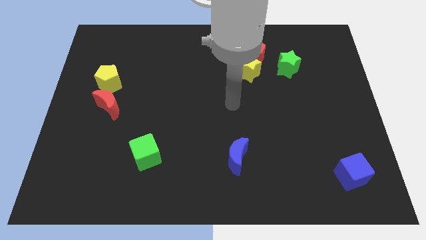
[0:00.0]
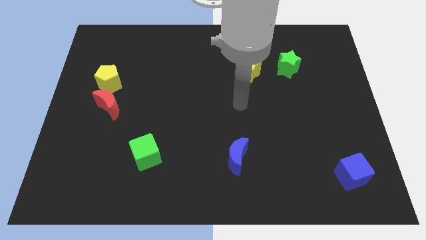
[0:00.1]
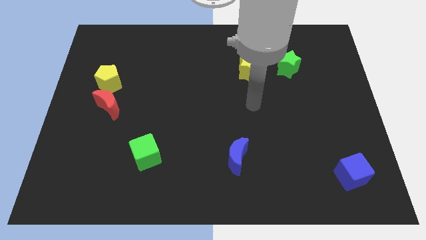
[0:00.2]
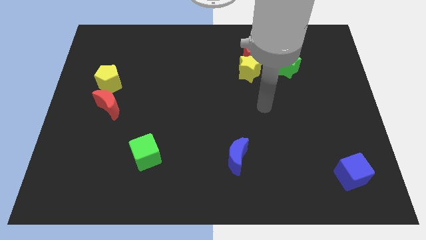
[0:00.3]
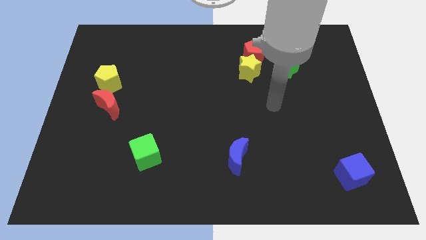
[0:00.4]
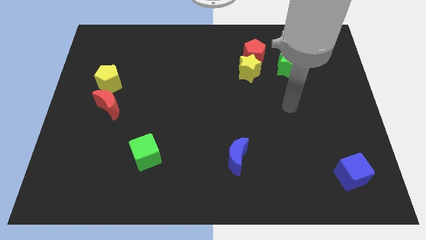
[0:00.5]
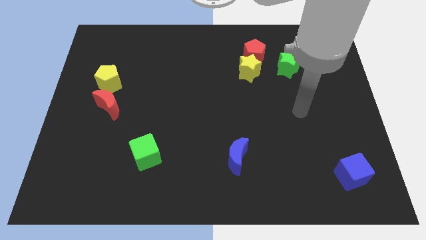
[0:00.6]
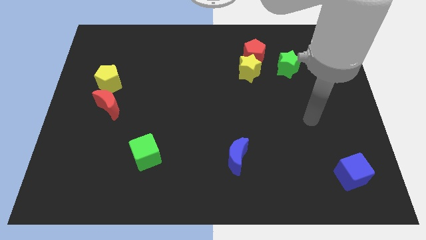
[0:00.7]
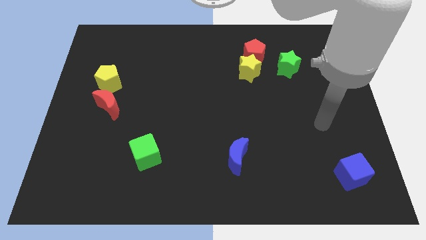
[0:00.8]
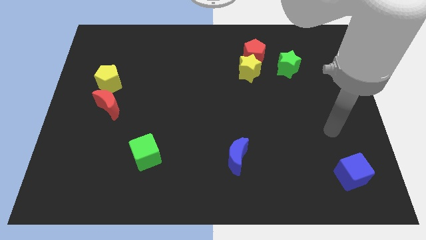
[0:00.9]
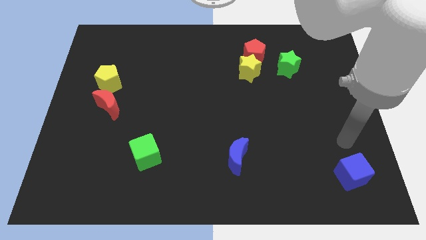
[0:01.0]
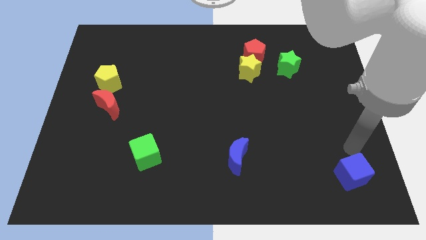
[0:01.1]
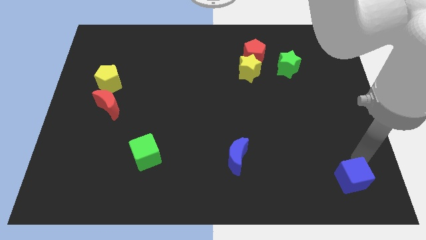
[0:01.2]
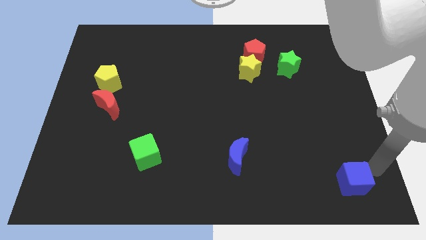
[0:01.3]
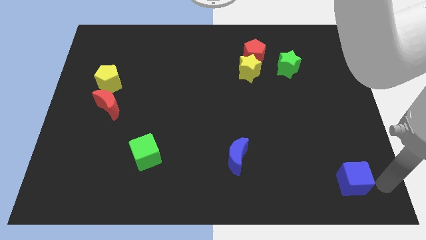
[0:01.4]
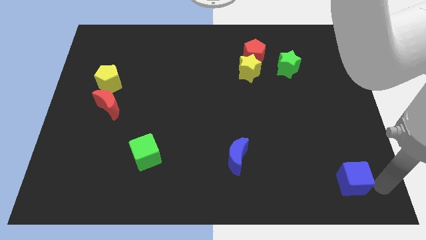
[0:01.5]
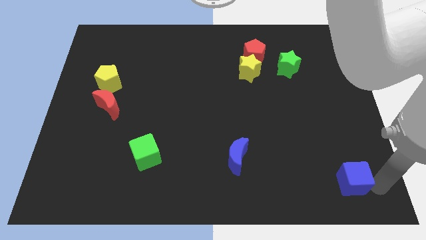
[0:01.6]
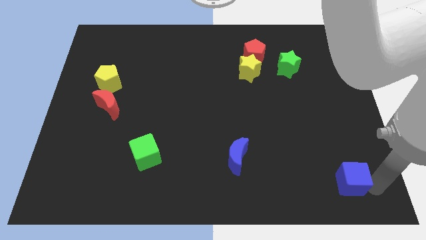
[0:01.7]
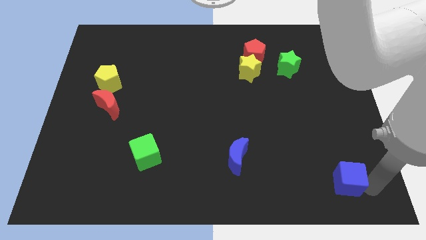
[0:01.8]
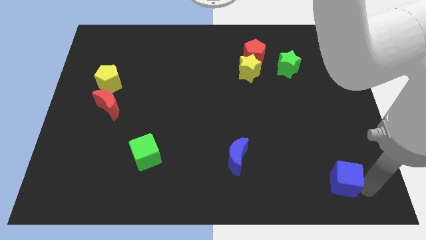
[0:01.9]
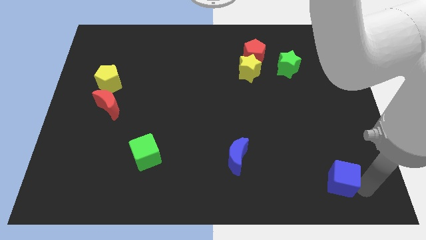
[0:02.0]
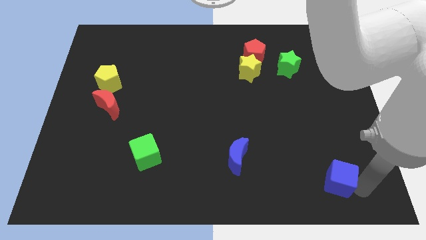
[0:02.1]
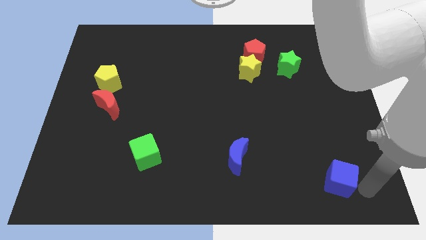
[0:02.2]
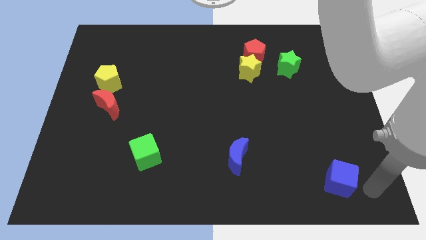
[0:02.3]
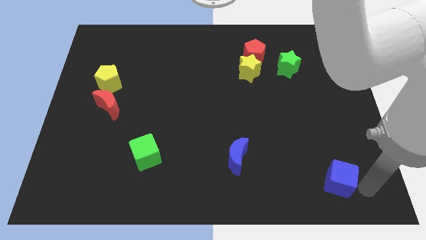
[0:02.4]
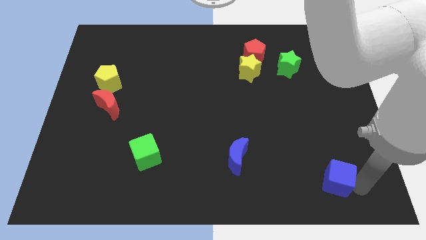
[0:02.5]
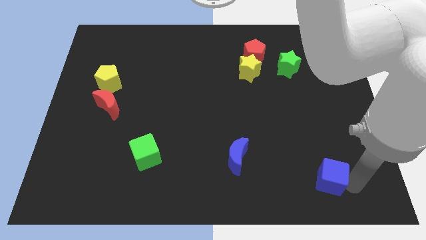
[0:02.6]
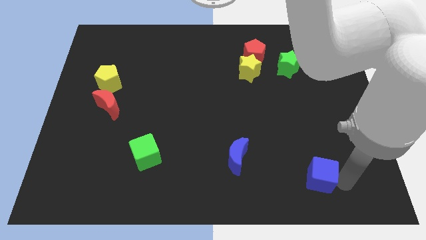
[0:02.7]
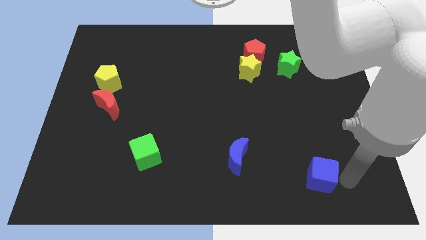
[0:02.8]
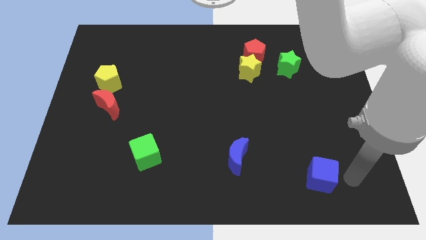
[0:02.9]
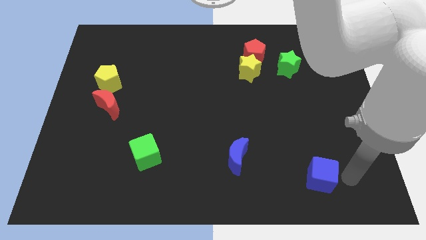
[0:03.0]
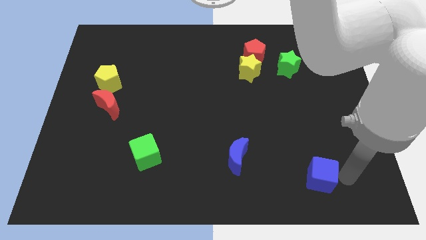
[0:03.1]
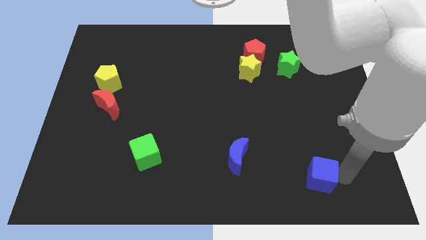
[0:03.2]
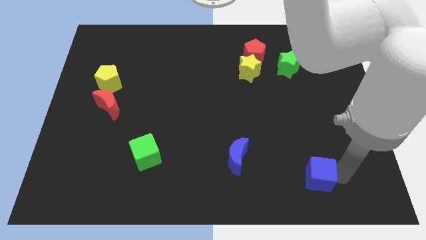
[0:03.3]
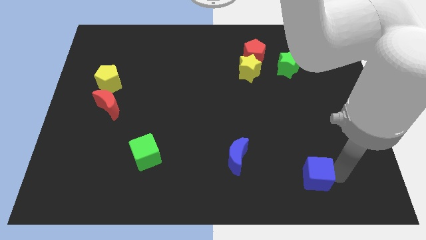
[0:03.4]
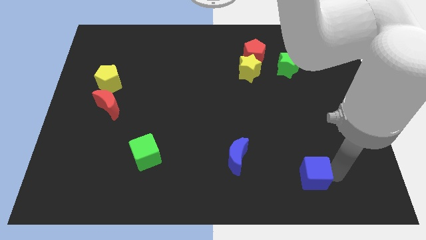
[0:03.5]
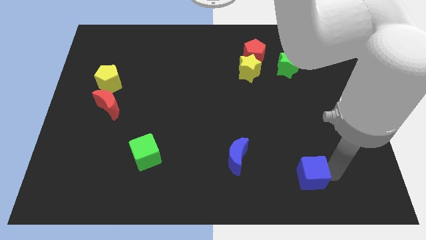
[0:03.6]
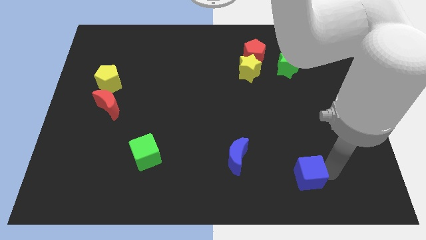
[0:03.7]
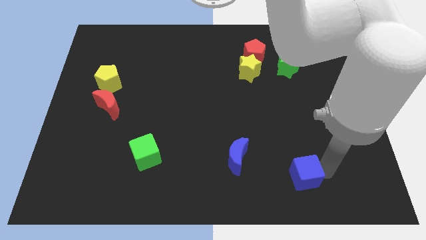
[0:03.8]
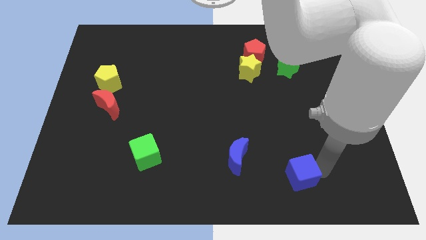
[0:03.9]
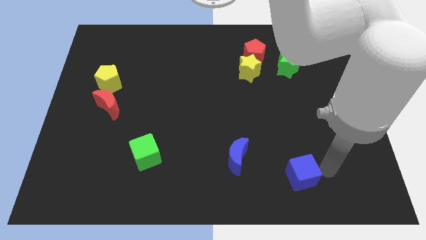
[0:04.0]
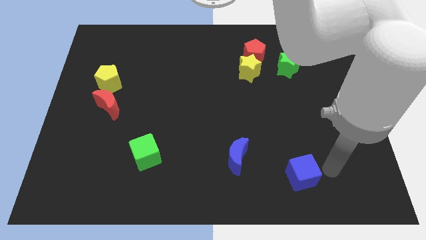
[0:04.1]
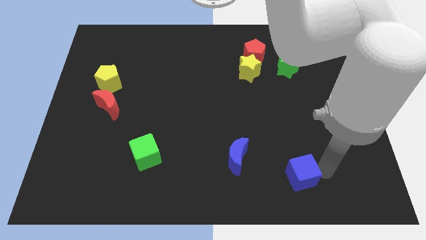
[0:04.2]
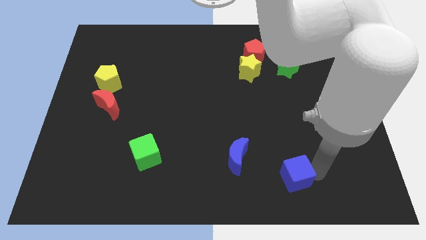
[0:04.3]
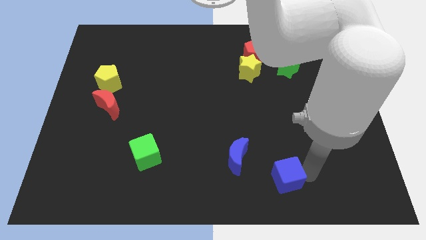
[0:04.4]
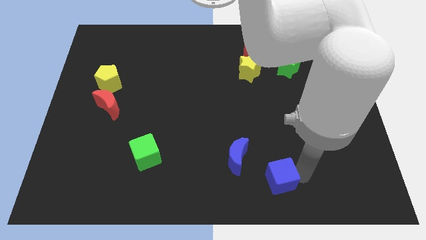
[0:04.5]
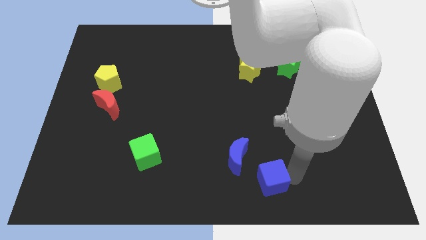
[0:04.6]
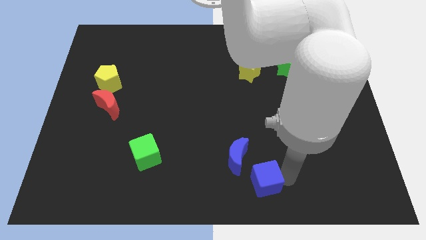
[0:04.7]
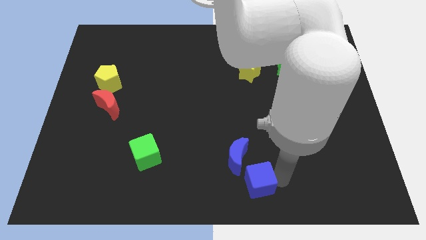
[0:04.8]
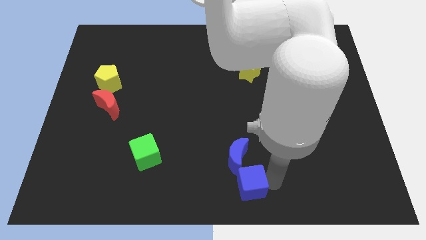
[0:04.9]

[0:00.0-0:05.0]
move the blue cube to the left

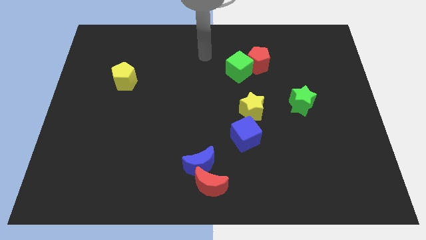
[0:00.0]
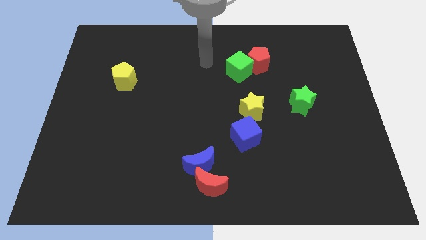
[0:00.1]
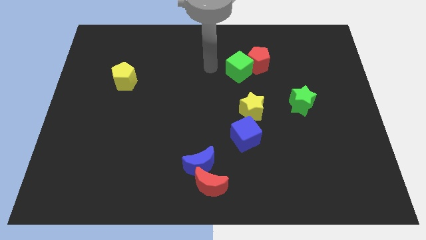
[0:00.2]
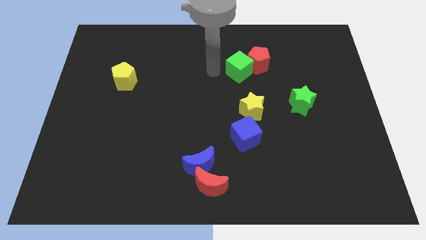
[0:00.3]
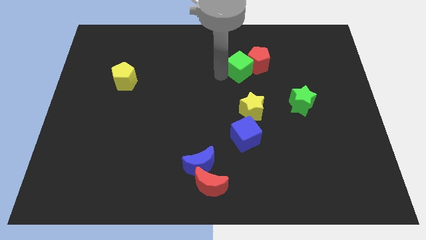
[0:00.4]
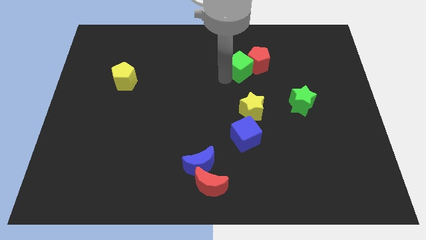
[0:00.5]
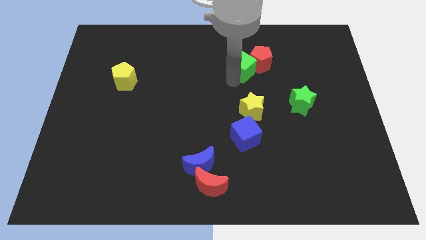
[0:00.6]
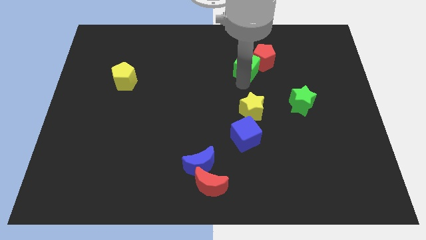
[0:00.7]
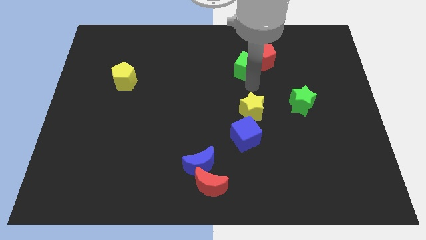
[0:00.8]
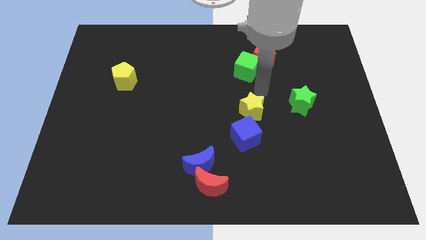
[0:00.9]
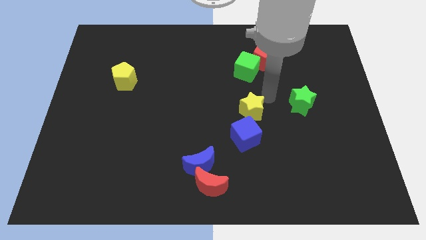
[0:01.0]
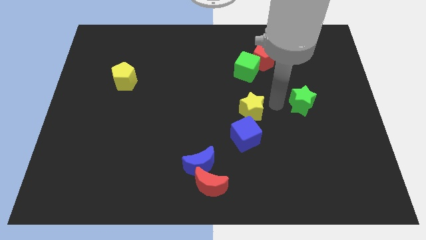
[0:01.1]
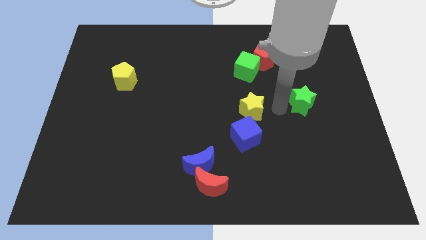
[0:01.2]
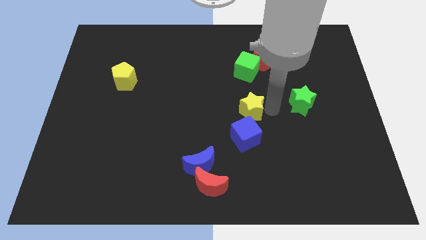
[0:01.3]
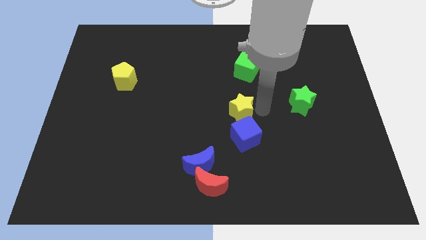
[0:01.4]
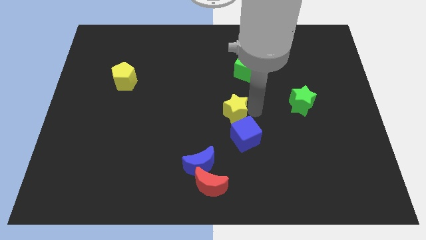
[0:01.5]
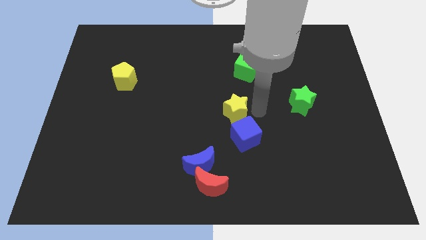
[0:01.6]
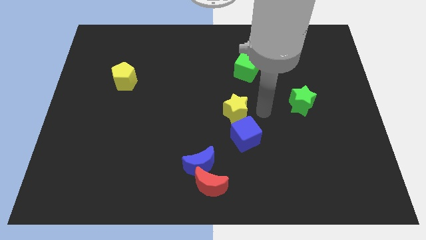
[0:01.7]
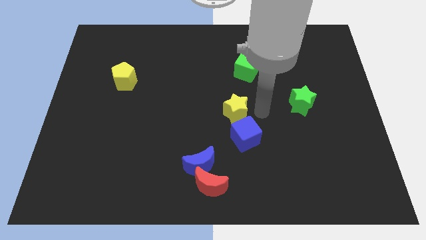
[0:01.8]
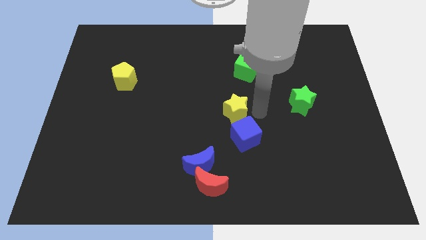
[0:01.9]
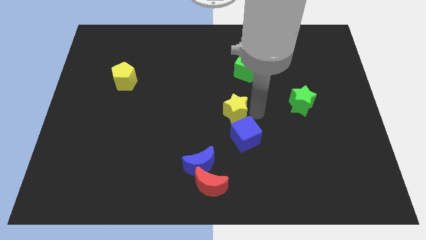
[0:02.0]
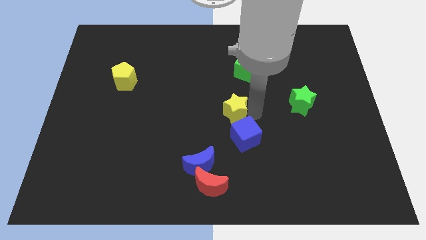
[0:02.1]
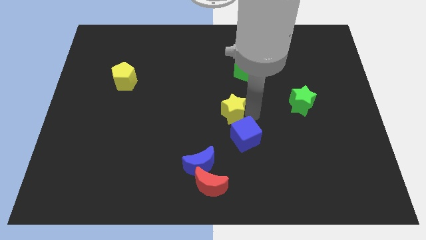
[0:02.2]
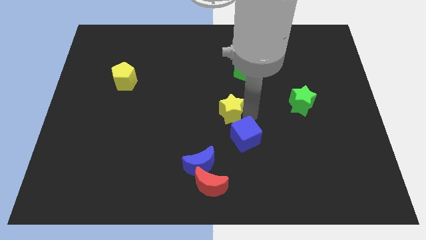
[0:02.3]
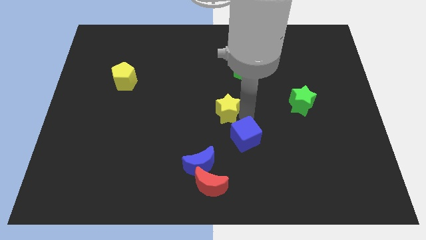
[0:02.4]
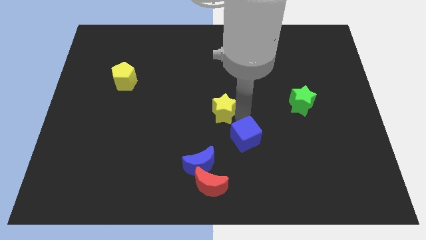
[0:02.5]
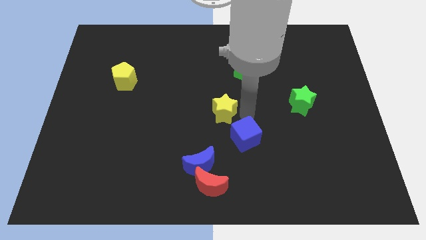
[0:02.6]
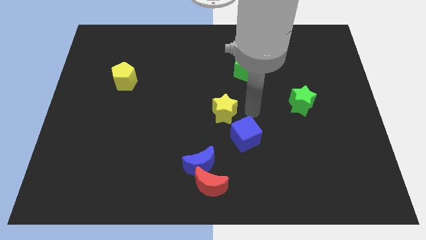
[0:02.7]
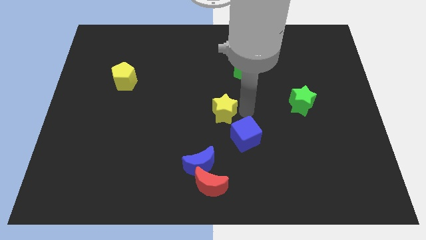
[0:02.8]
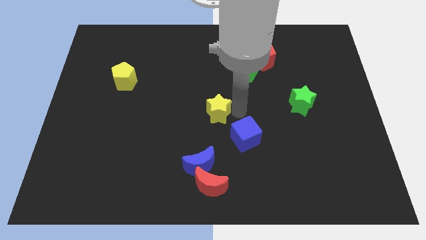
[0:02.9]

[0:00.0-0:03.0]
push the yellow star to the left a little bit
